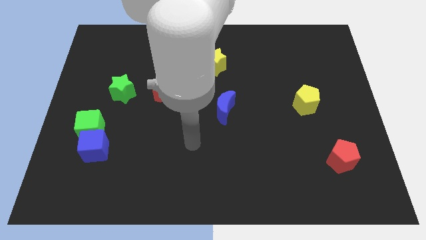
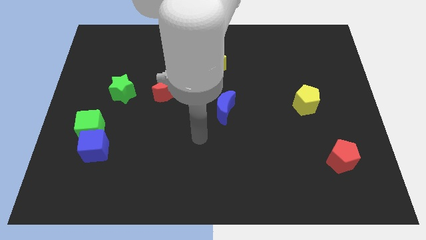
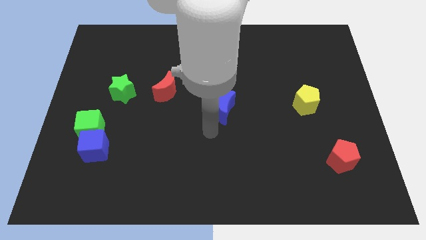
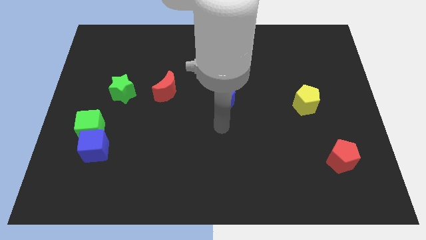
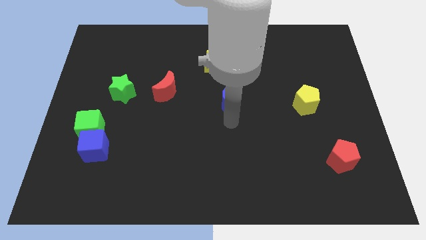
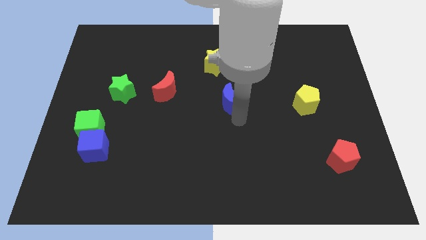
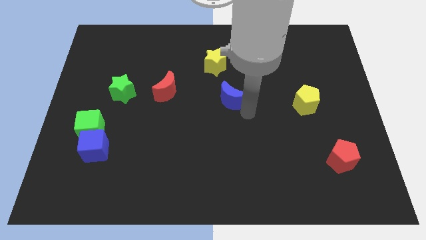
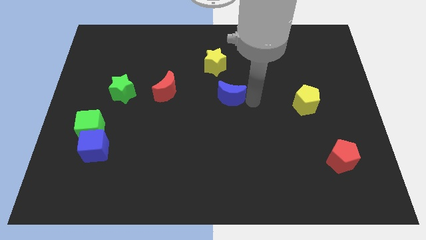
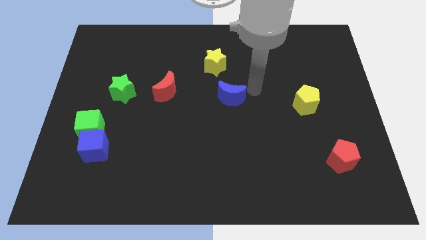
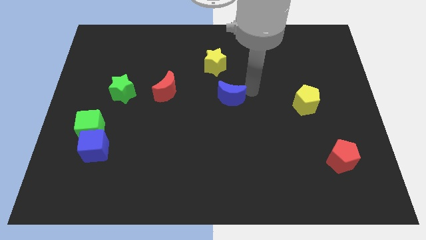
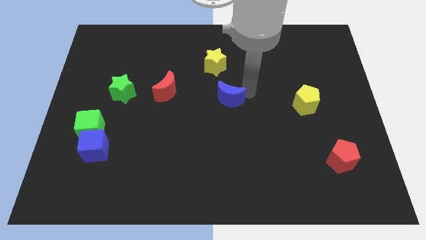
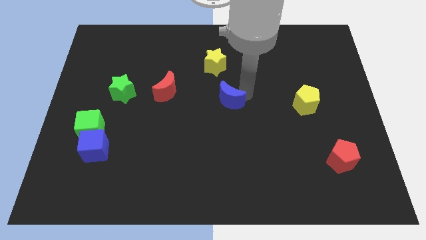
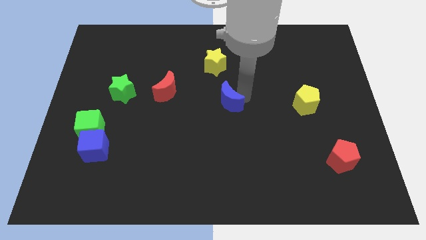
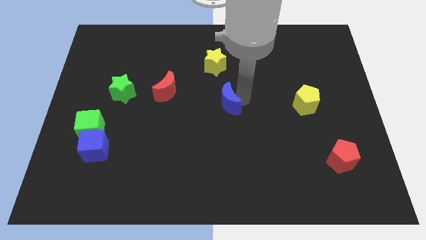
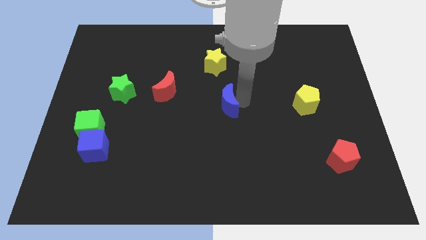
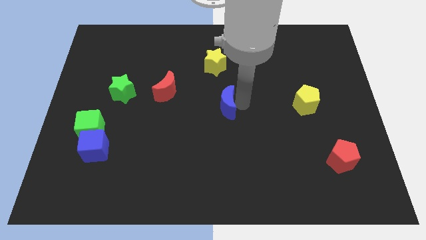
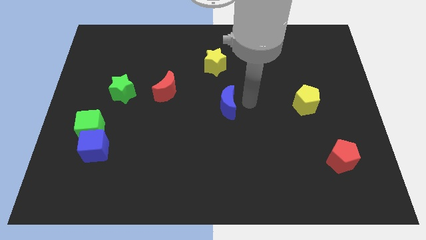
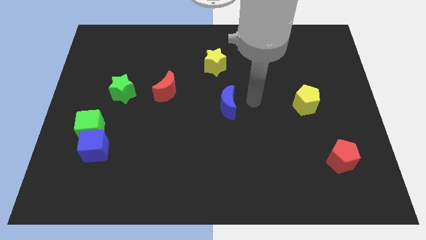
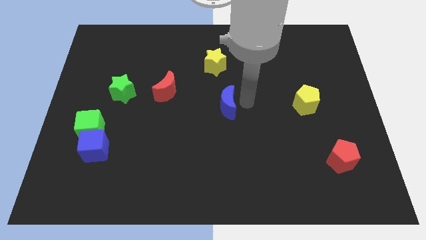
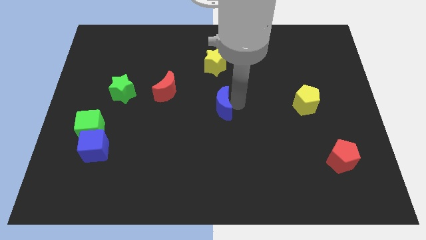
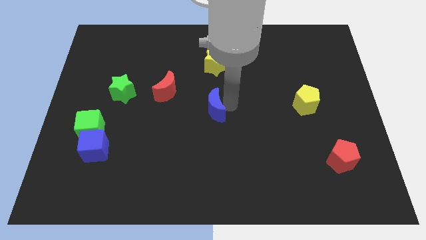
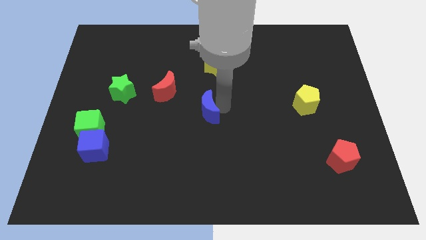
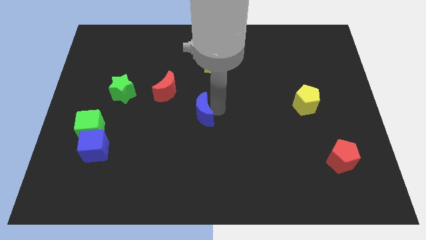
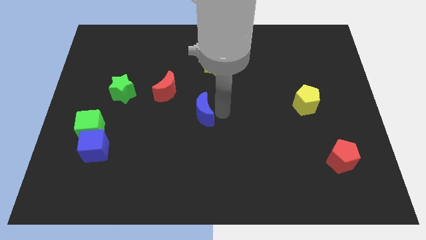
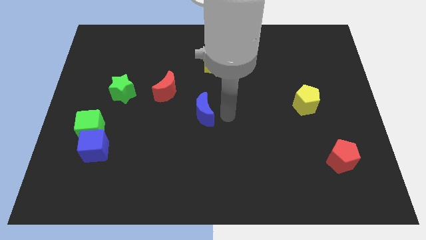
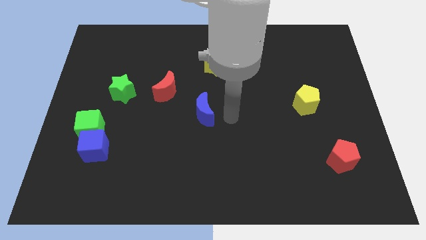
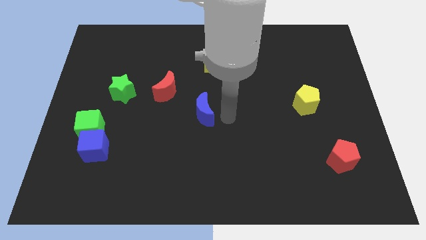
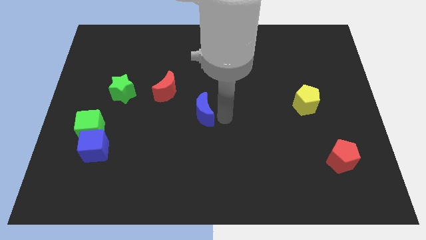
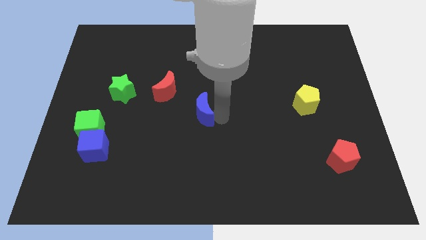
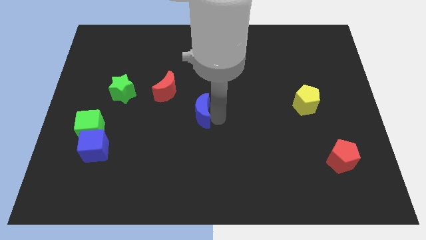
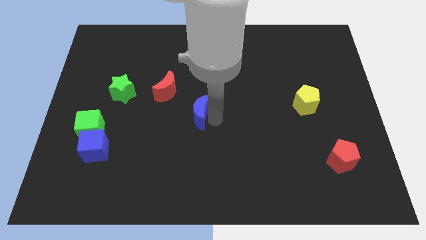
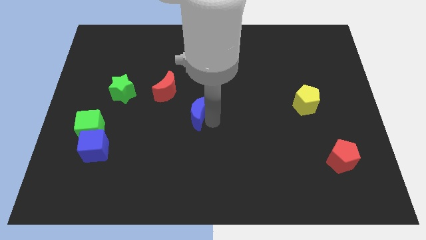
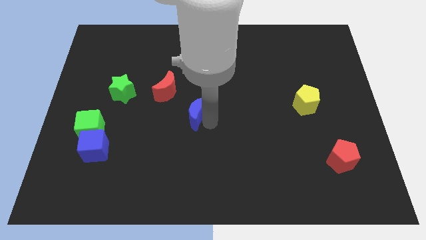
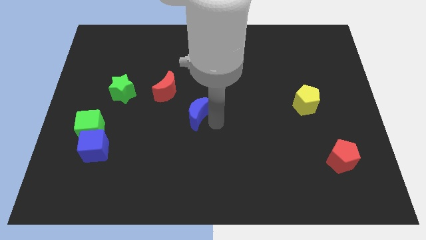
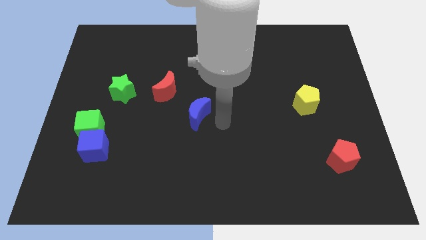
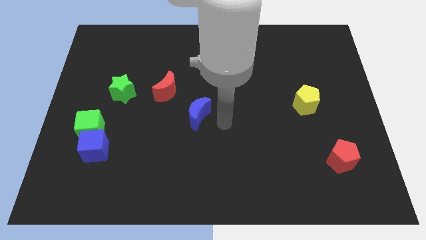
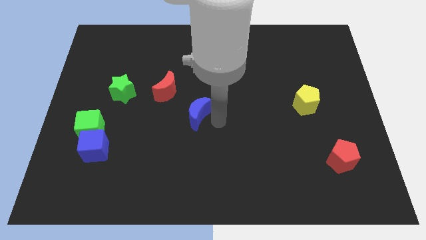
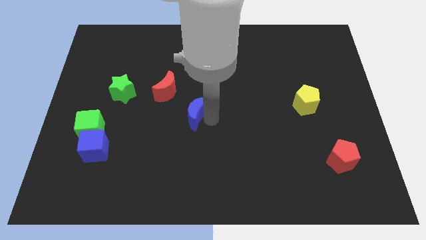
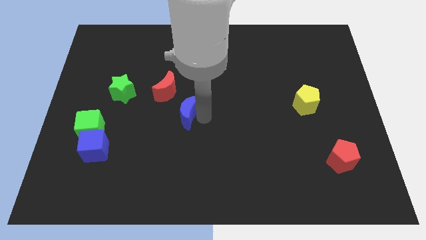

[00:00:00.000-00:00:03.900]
slightly slide the blue moon left

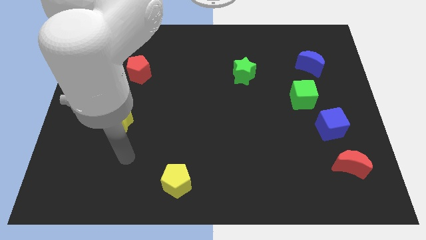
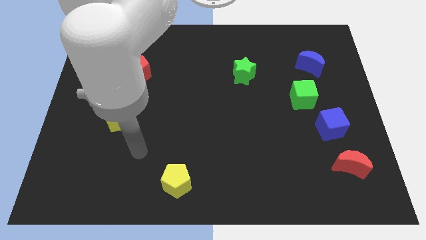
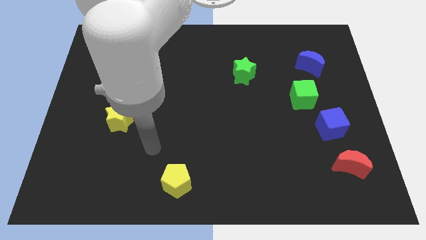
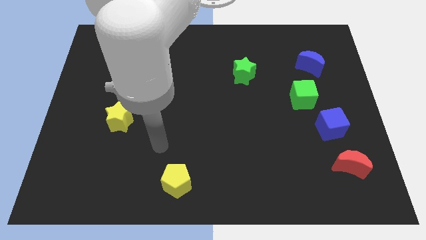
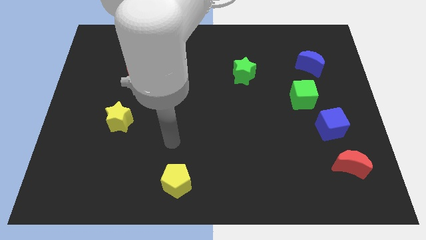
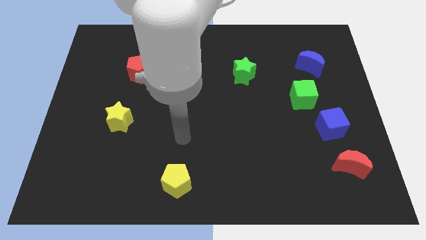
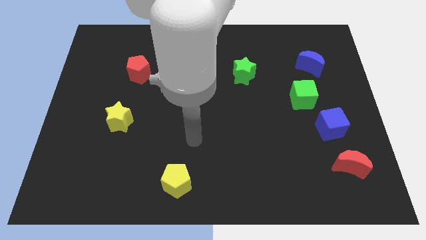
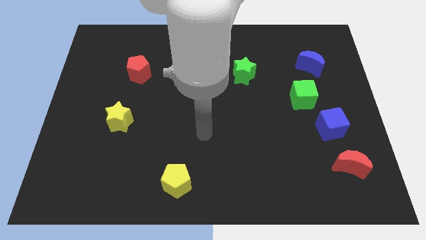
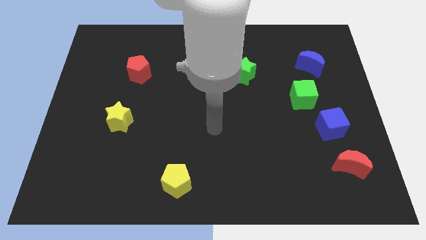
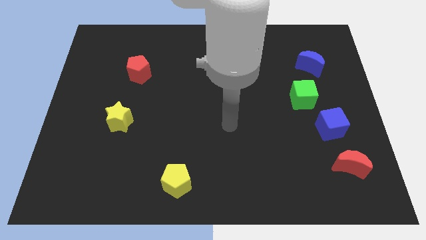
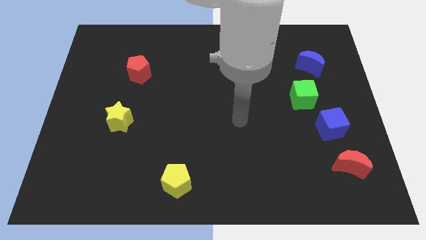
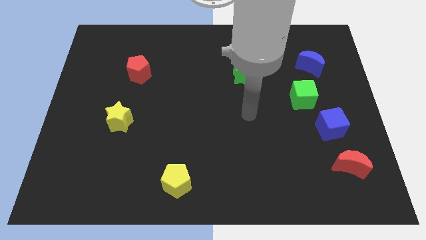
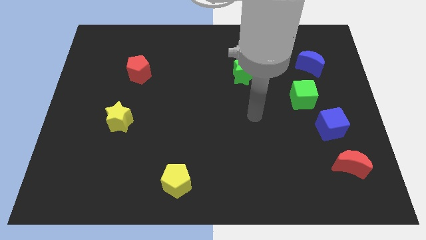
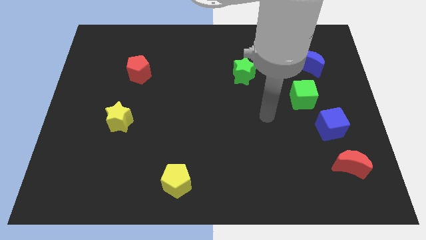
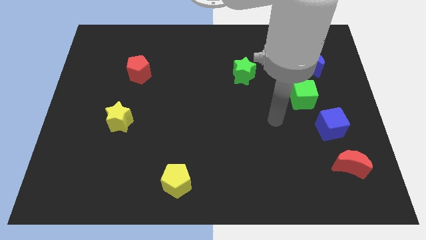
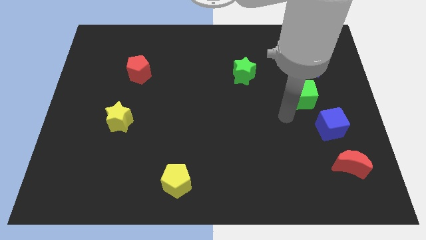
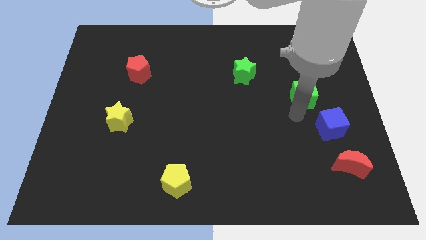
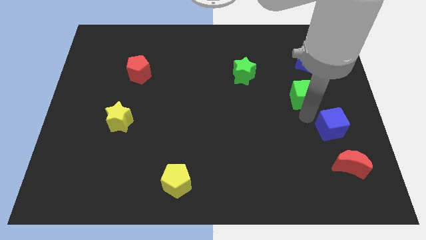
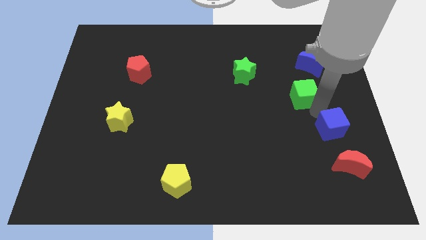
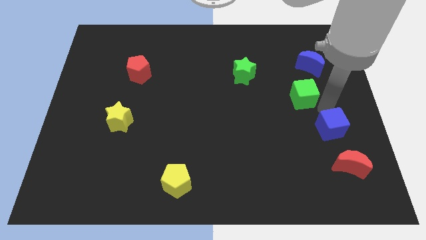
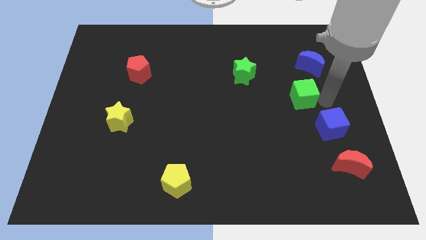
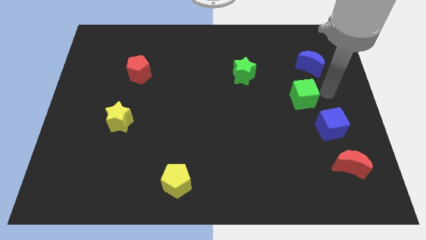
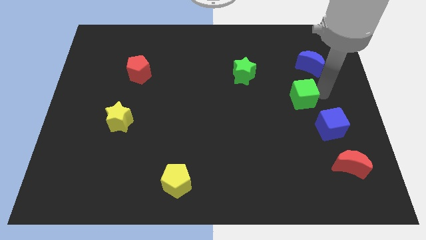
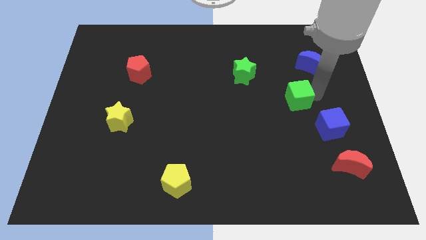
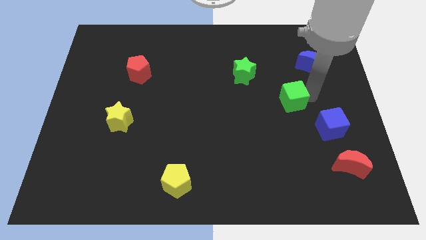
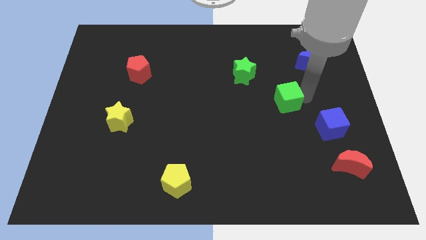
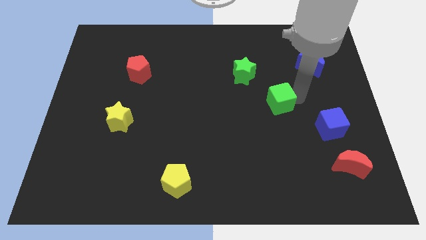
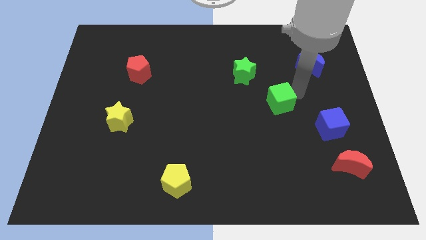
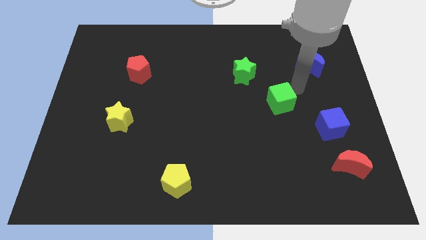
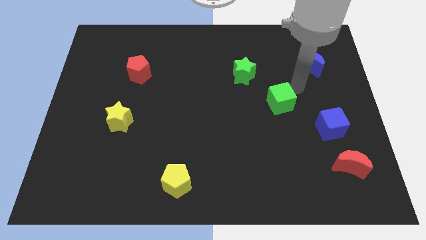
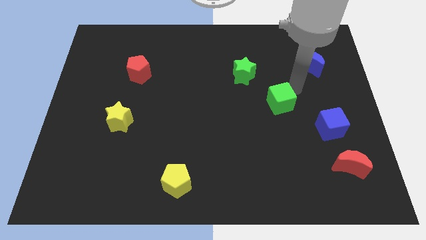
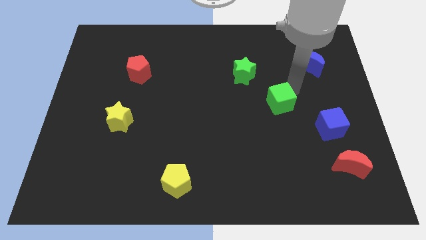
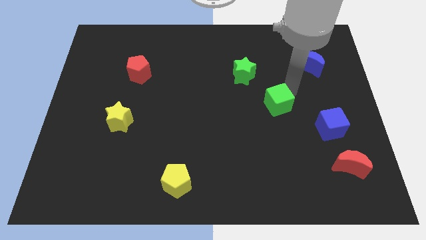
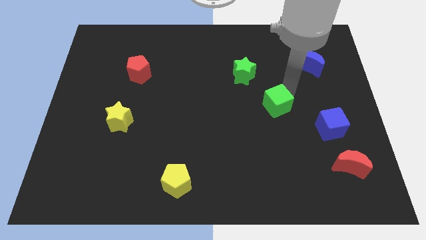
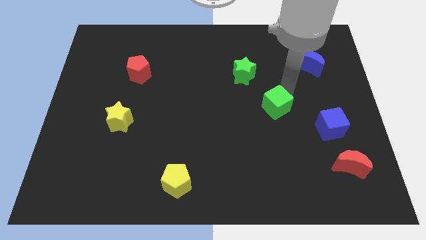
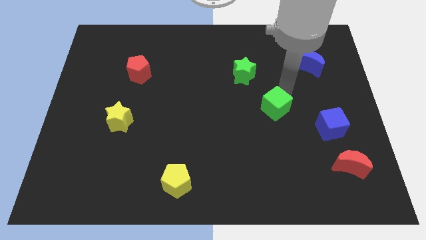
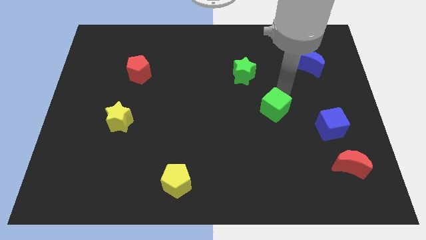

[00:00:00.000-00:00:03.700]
push the green cube slightly diagonally downwards and to the left

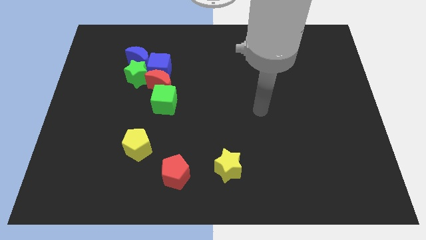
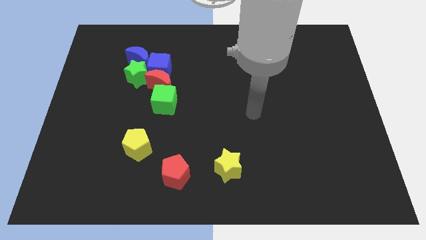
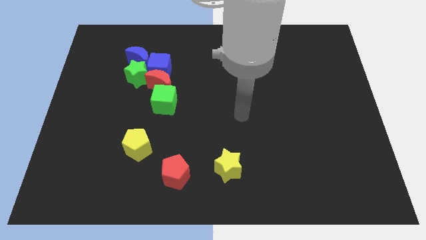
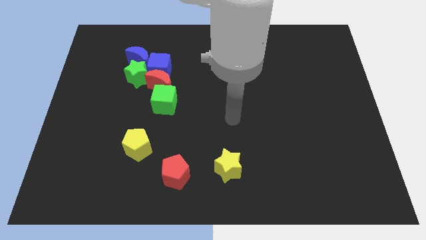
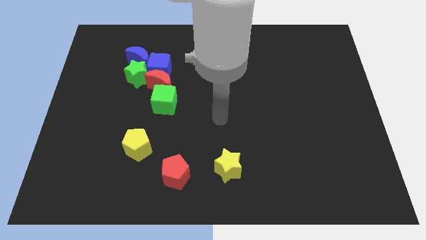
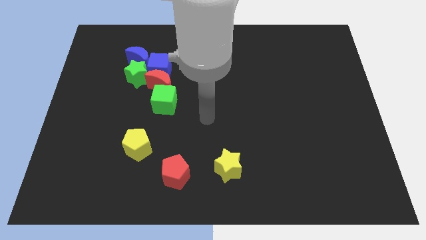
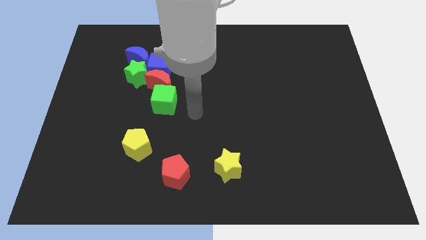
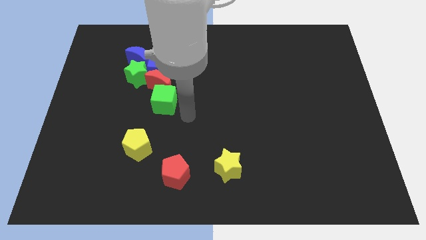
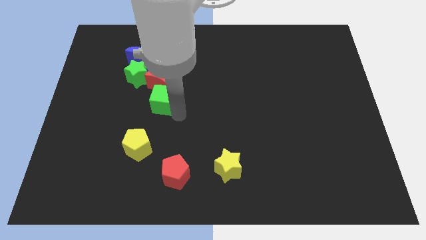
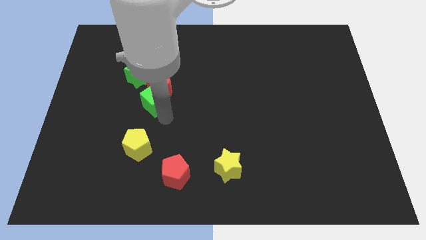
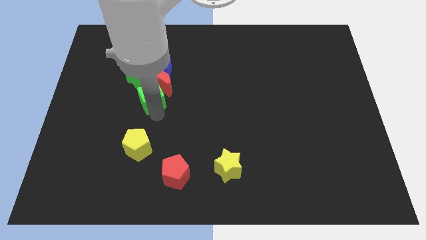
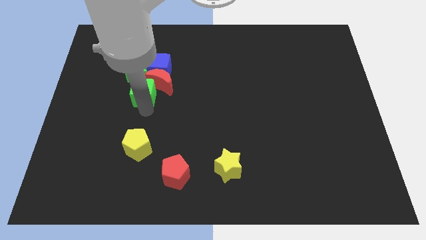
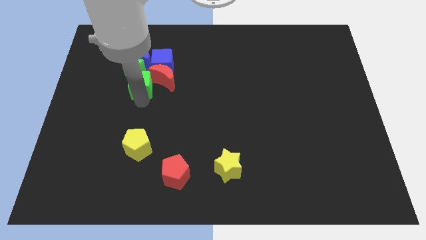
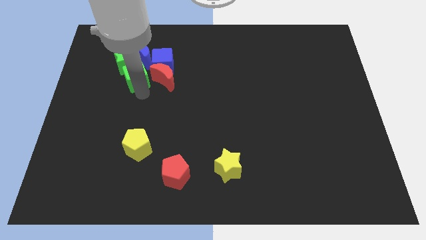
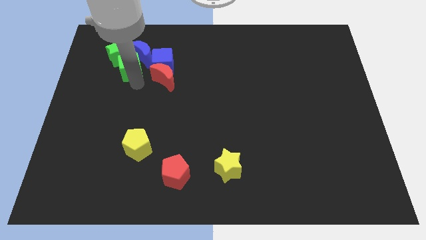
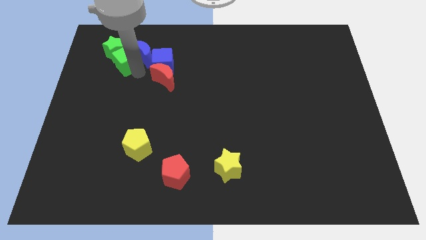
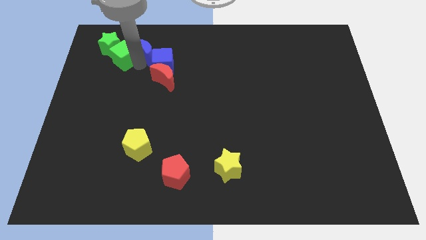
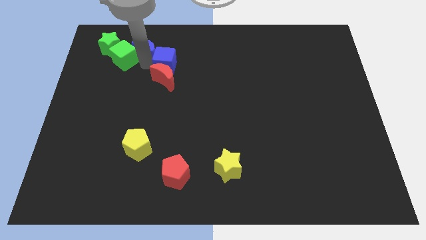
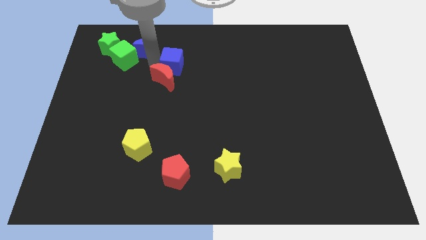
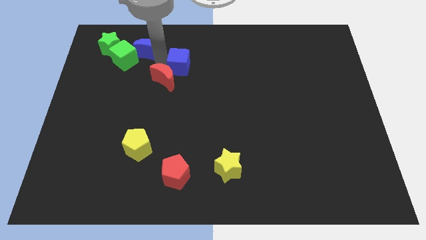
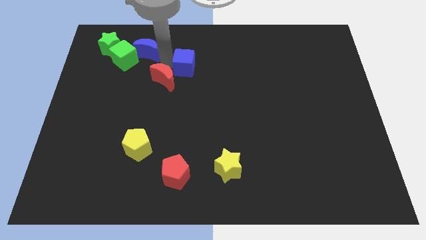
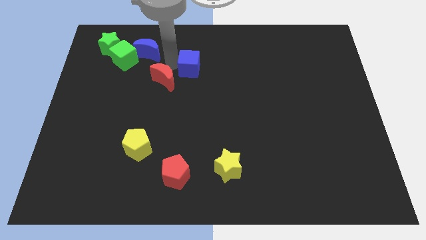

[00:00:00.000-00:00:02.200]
move the blue cube right somewhat
